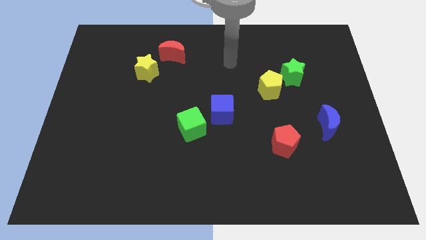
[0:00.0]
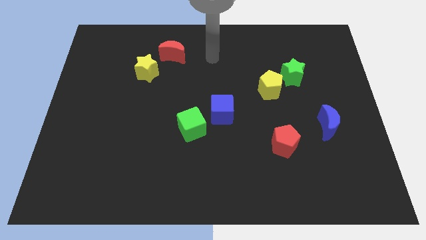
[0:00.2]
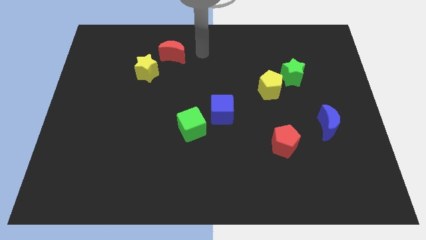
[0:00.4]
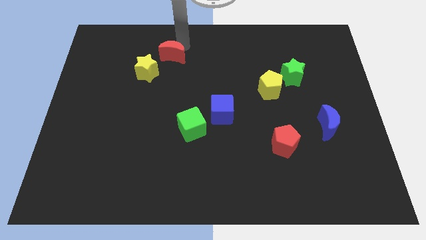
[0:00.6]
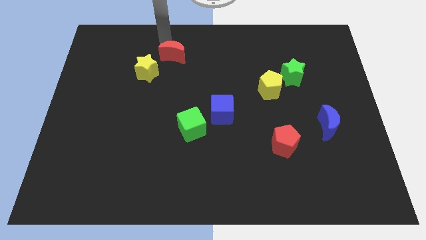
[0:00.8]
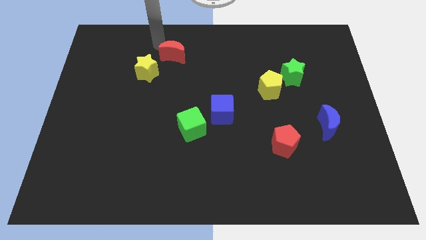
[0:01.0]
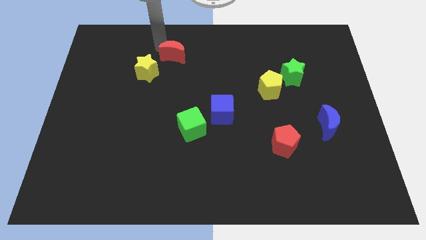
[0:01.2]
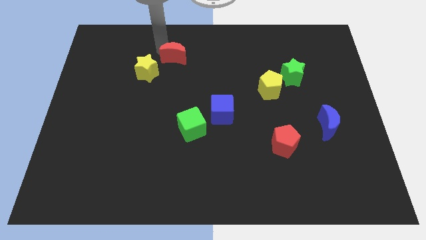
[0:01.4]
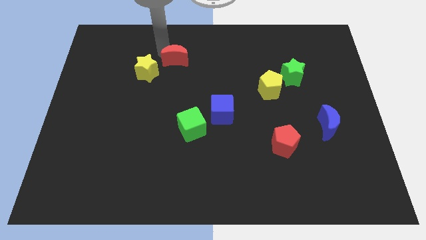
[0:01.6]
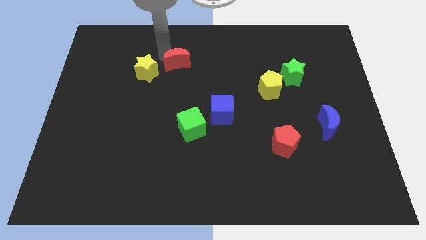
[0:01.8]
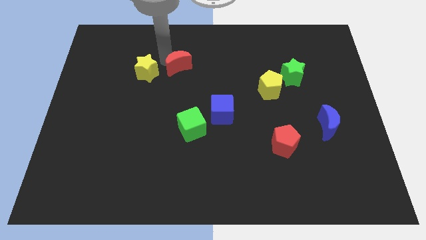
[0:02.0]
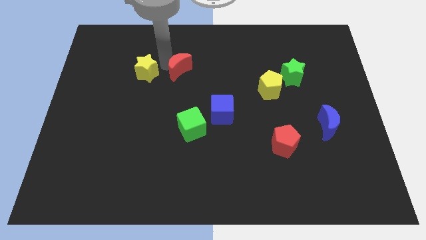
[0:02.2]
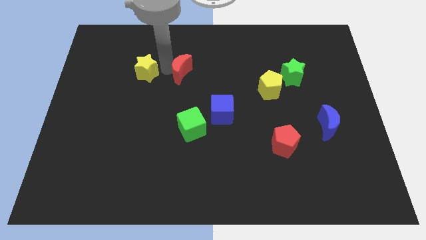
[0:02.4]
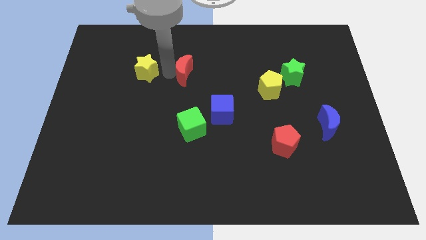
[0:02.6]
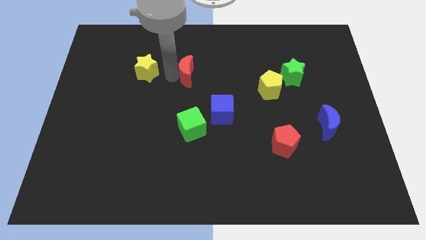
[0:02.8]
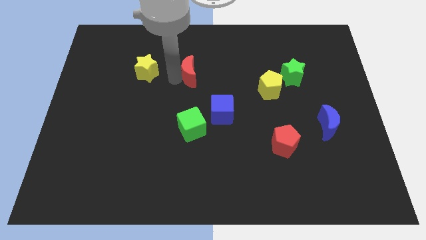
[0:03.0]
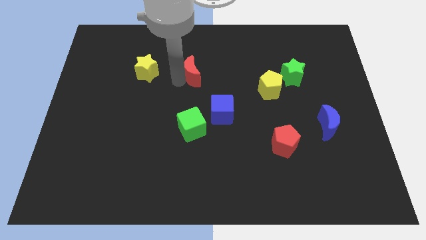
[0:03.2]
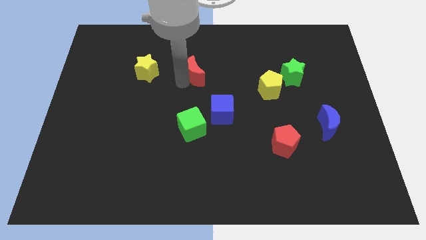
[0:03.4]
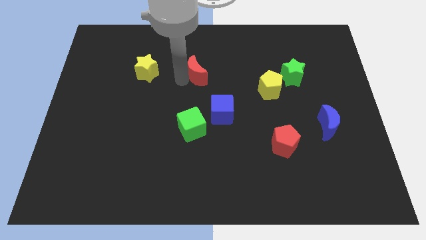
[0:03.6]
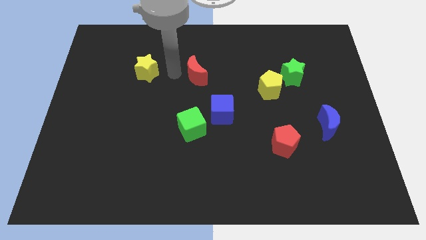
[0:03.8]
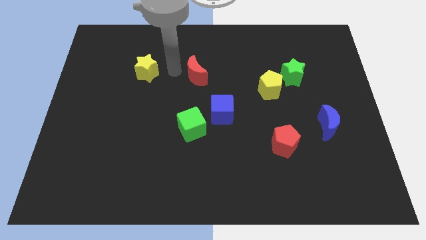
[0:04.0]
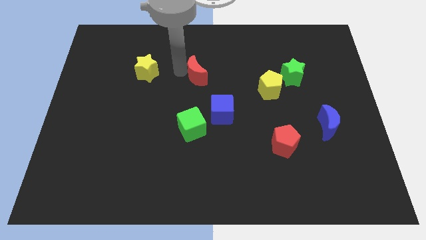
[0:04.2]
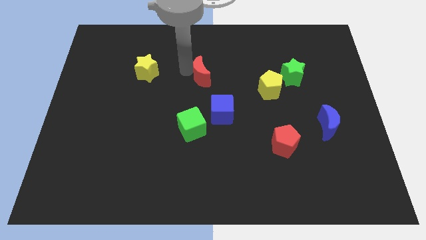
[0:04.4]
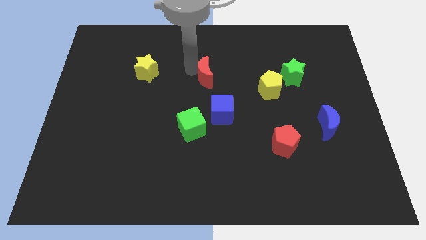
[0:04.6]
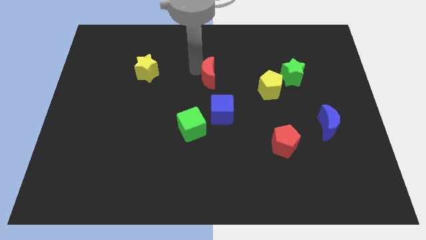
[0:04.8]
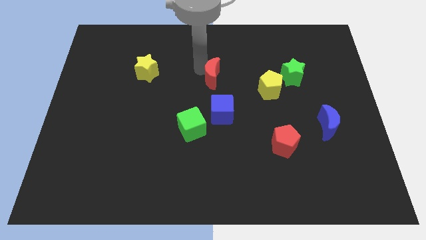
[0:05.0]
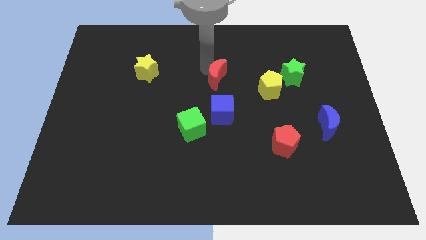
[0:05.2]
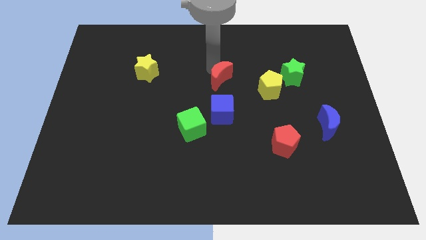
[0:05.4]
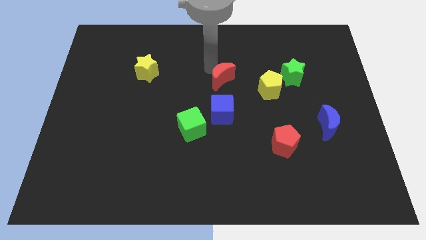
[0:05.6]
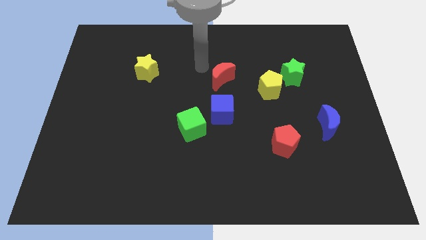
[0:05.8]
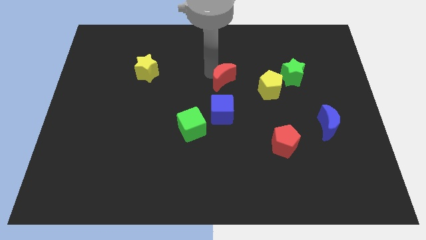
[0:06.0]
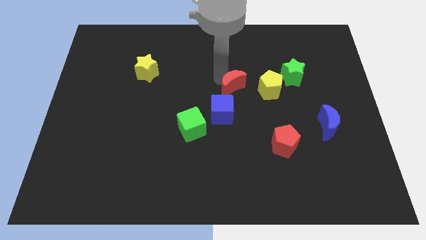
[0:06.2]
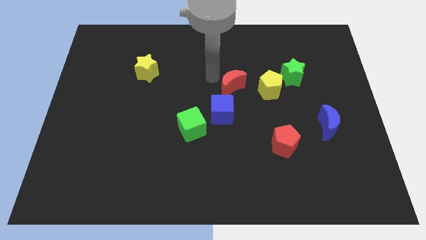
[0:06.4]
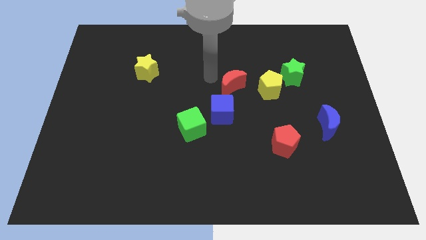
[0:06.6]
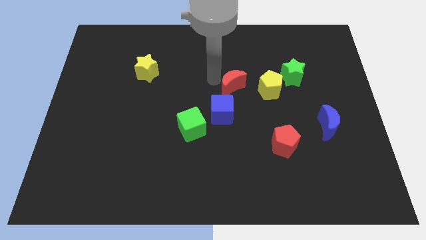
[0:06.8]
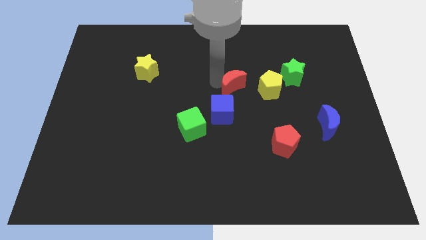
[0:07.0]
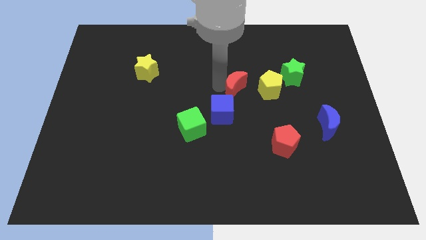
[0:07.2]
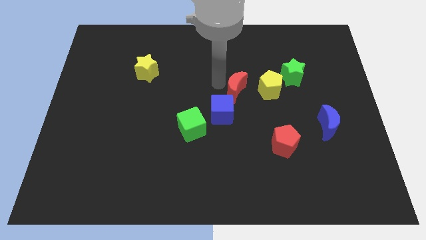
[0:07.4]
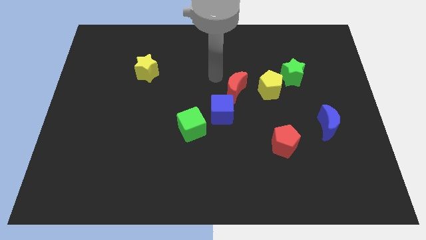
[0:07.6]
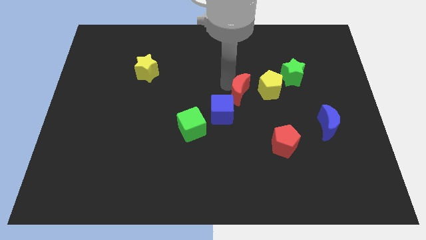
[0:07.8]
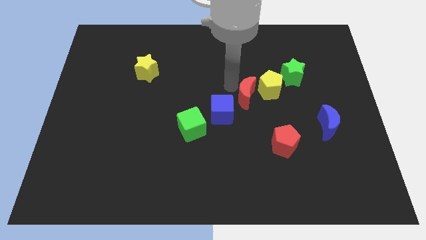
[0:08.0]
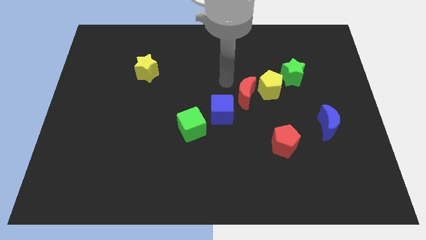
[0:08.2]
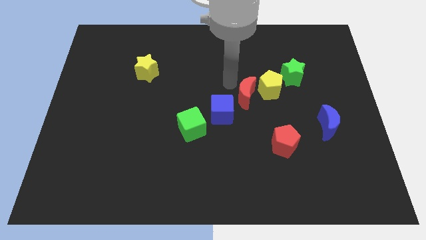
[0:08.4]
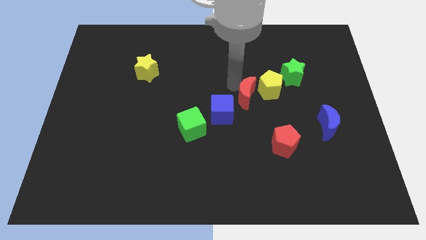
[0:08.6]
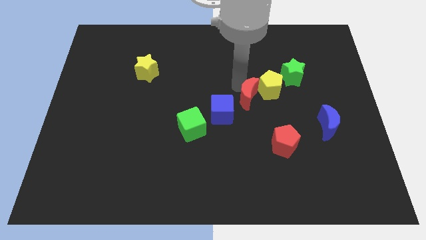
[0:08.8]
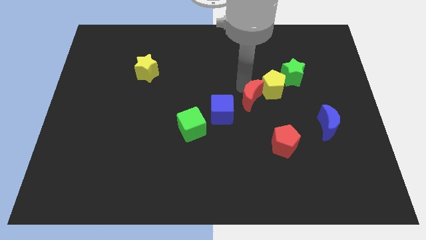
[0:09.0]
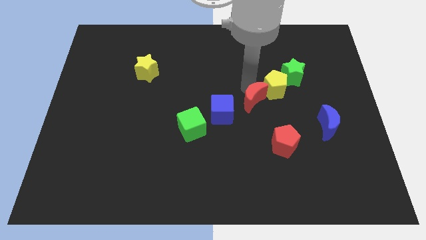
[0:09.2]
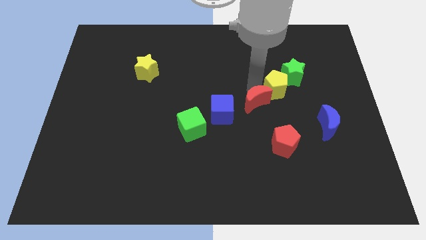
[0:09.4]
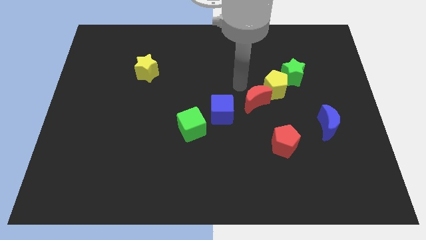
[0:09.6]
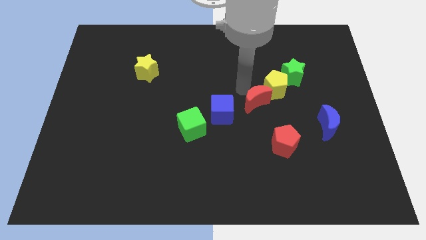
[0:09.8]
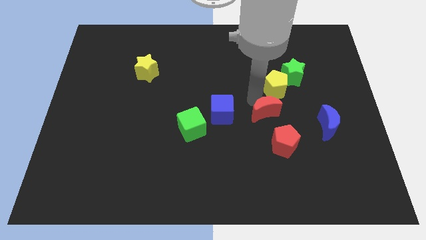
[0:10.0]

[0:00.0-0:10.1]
push the red moon to the left side of the blue moon

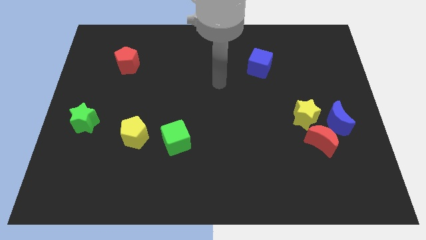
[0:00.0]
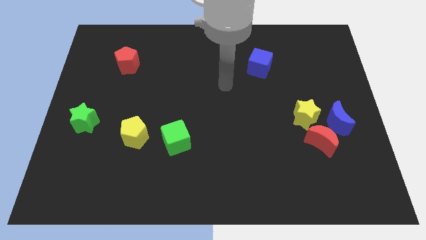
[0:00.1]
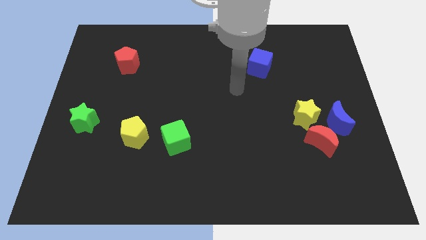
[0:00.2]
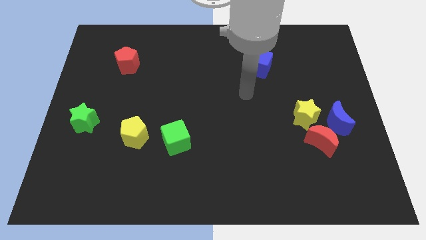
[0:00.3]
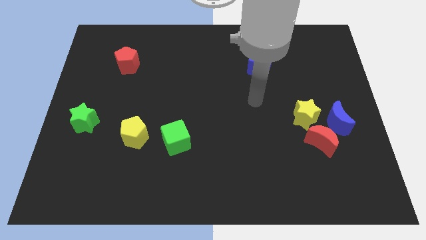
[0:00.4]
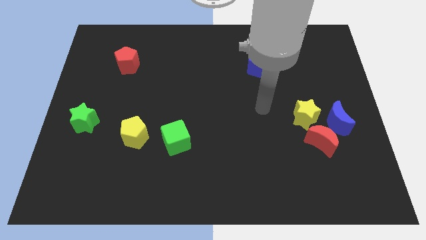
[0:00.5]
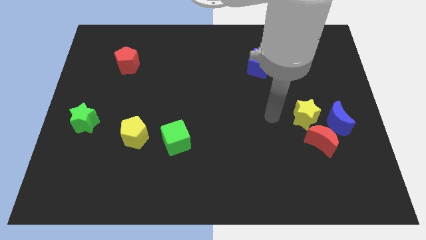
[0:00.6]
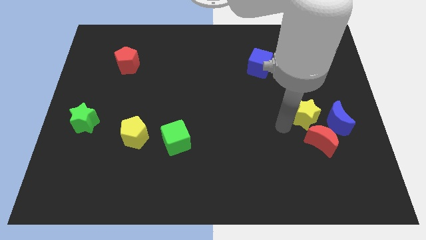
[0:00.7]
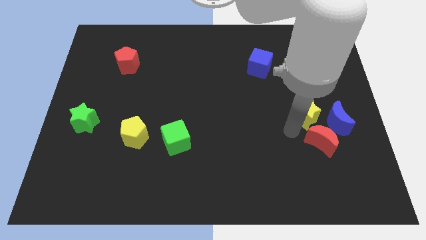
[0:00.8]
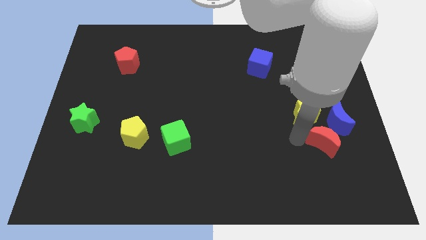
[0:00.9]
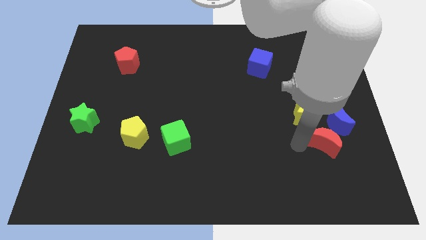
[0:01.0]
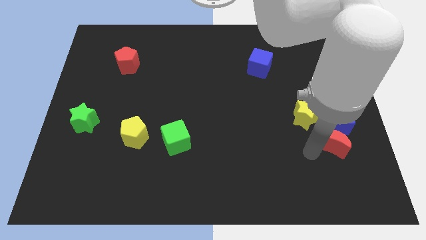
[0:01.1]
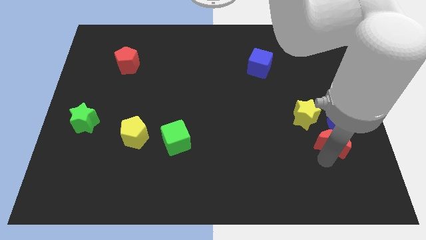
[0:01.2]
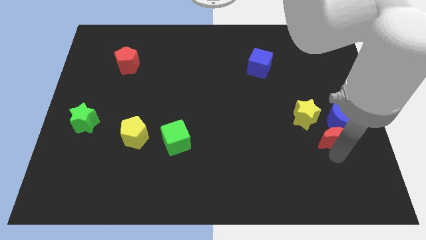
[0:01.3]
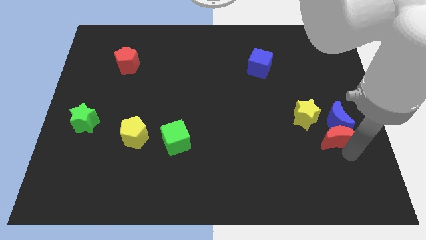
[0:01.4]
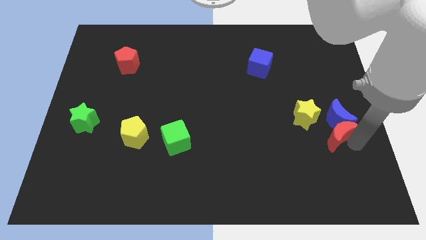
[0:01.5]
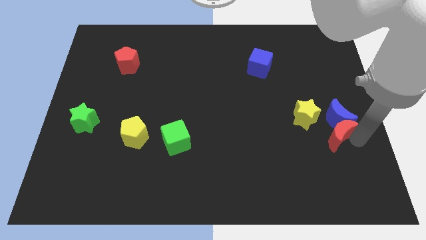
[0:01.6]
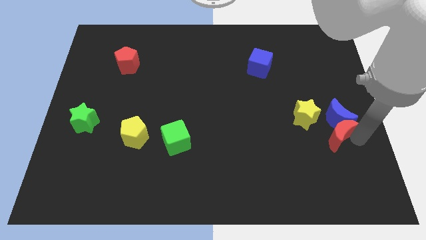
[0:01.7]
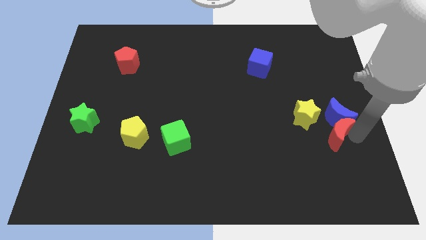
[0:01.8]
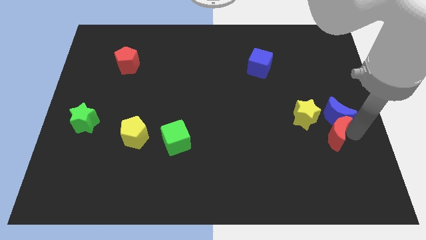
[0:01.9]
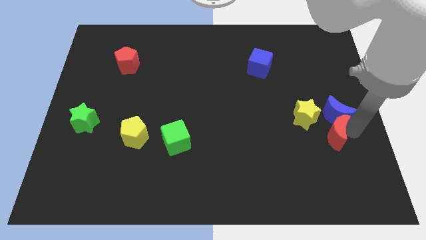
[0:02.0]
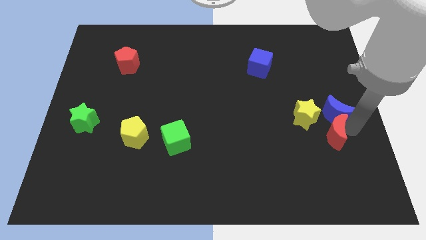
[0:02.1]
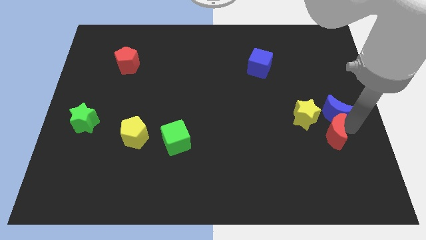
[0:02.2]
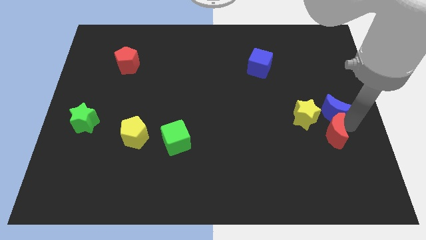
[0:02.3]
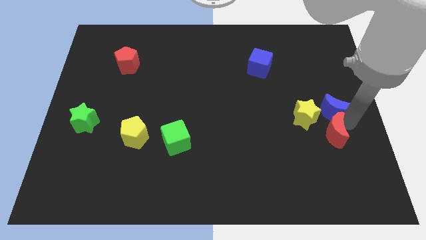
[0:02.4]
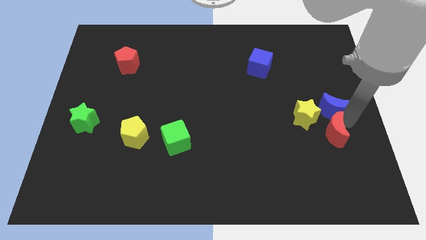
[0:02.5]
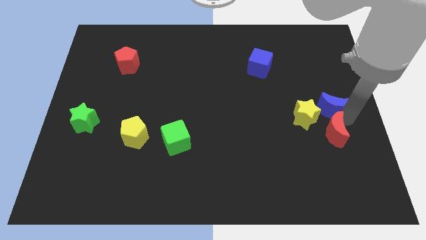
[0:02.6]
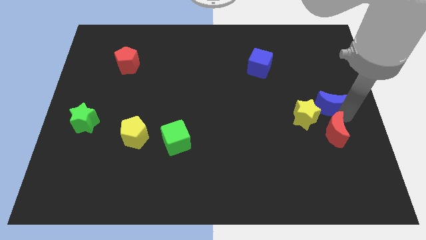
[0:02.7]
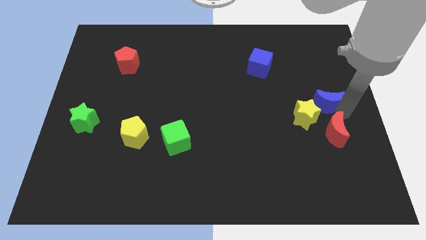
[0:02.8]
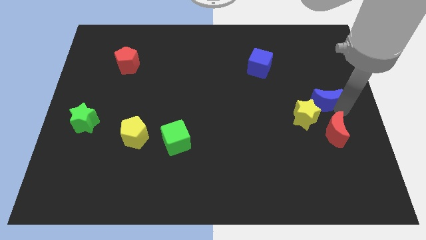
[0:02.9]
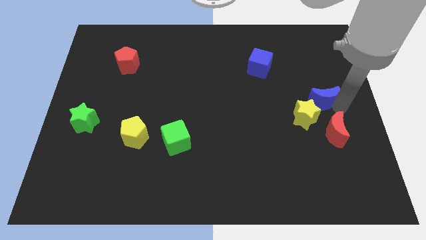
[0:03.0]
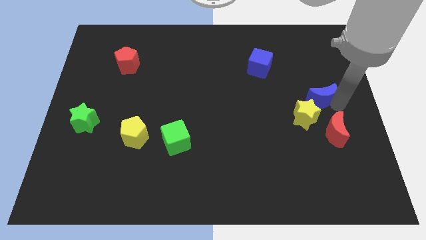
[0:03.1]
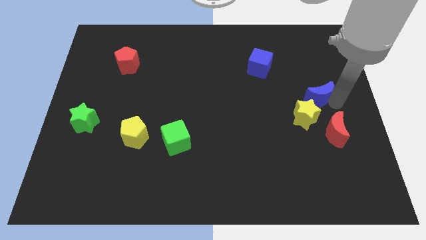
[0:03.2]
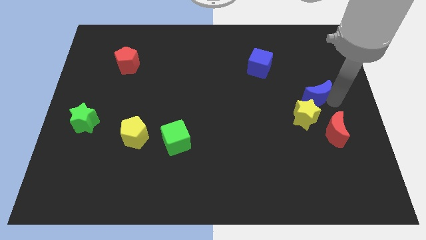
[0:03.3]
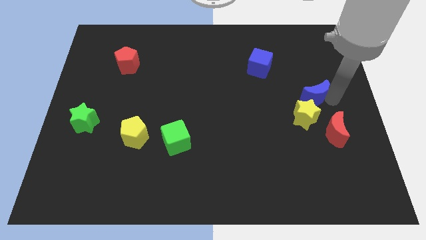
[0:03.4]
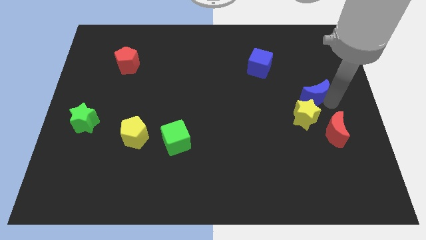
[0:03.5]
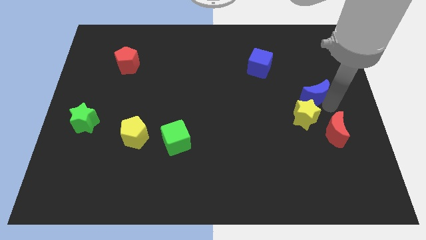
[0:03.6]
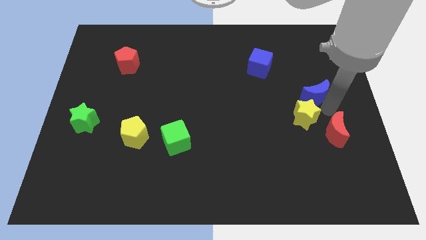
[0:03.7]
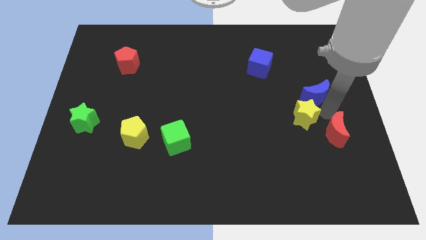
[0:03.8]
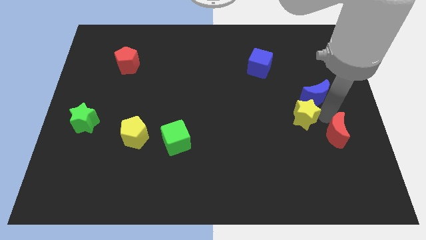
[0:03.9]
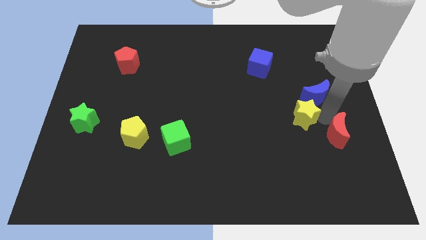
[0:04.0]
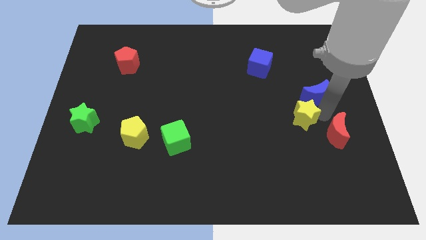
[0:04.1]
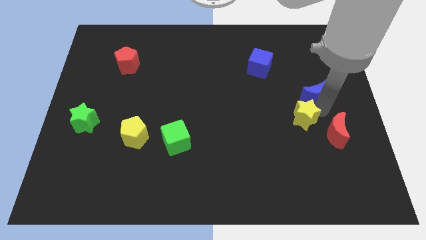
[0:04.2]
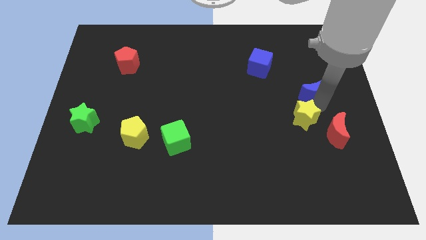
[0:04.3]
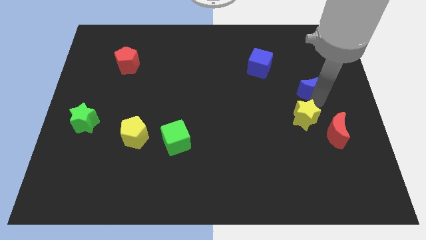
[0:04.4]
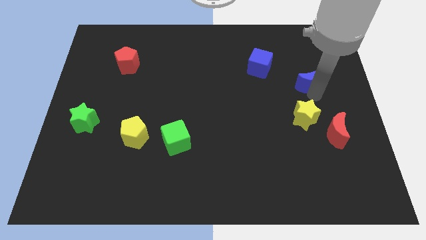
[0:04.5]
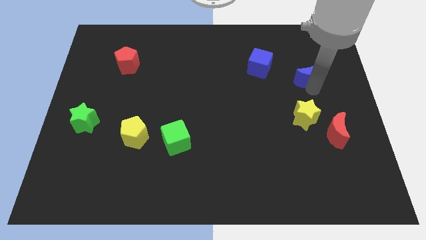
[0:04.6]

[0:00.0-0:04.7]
move the blue moon to the right side of the blue cube
